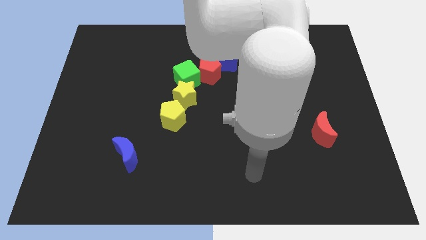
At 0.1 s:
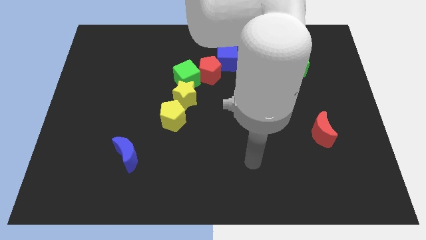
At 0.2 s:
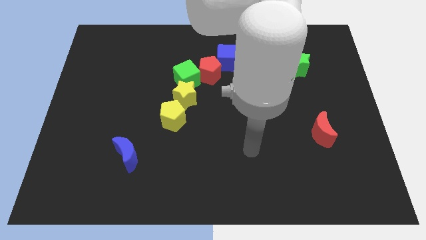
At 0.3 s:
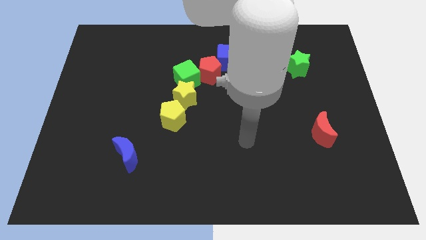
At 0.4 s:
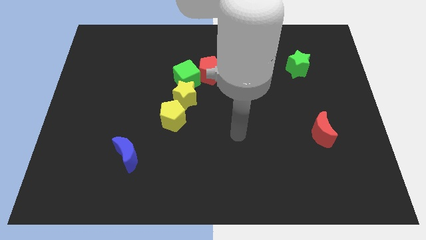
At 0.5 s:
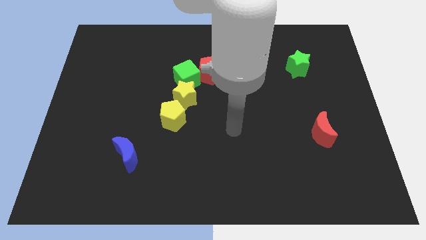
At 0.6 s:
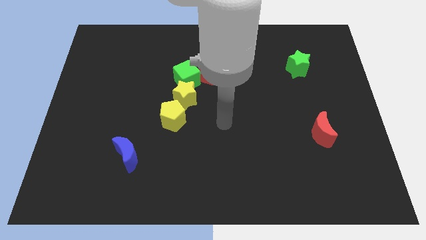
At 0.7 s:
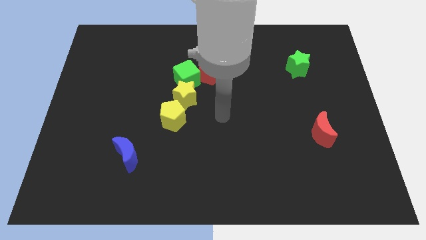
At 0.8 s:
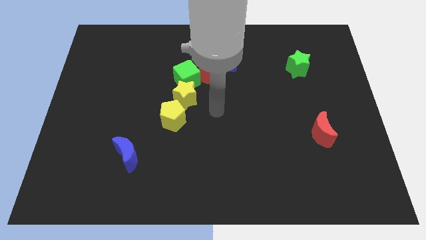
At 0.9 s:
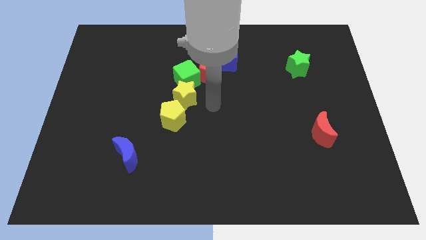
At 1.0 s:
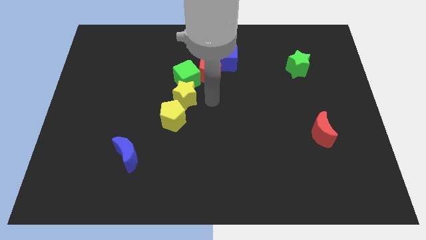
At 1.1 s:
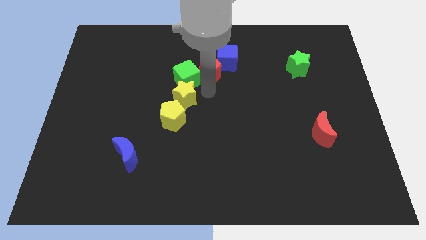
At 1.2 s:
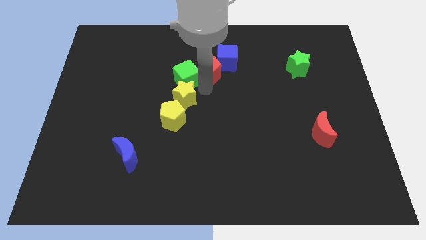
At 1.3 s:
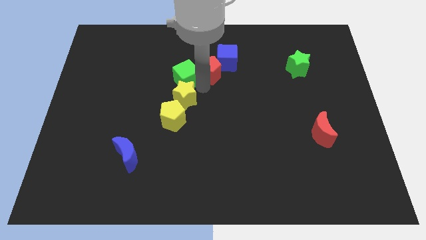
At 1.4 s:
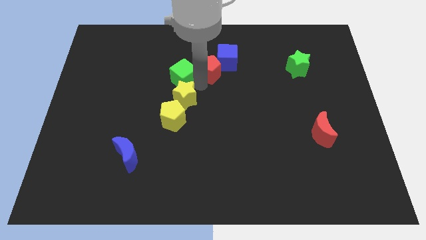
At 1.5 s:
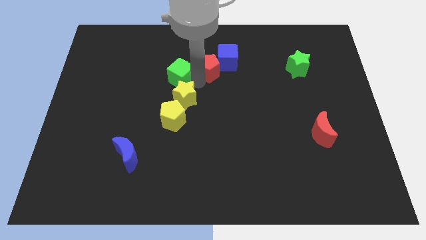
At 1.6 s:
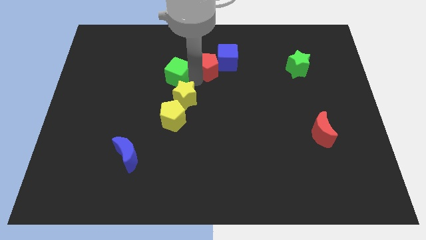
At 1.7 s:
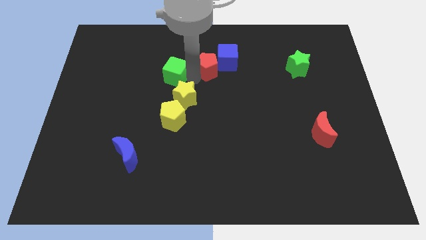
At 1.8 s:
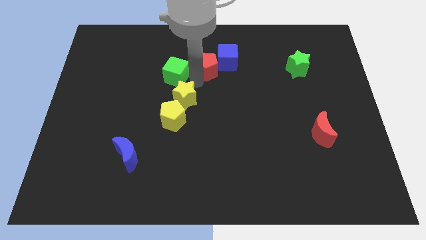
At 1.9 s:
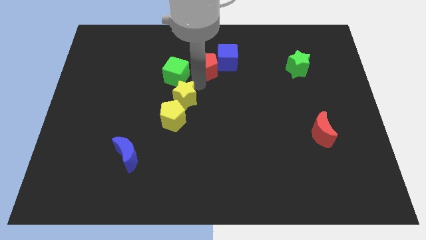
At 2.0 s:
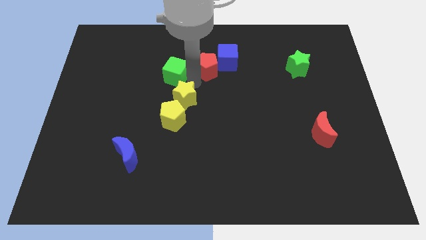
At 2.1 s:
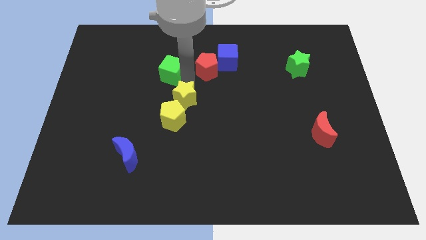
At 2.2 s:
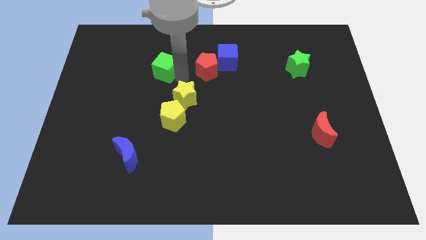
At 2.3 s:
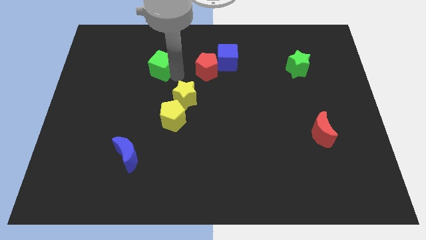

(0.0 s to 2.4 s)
separate the green cube from the red pentagon and yellow star

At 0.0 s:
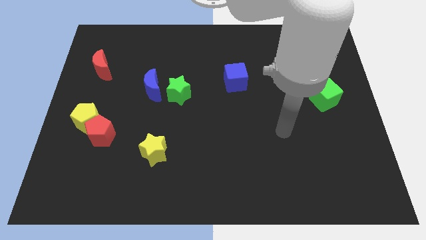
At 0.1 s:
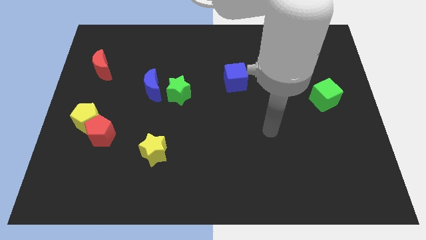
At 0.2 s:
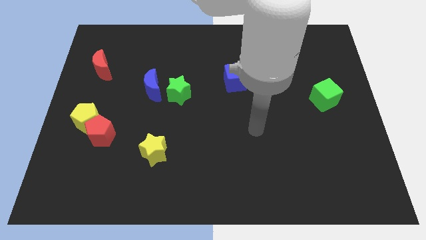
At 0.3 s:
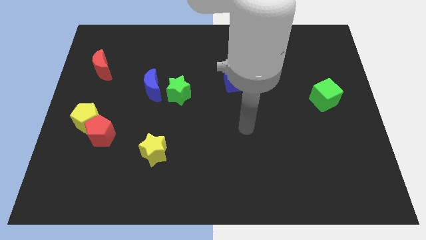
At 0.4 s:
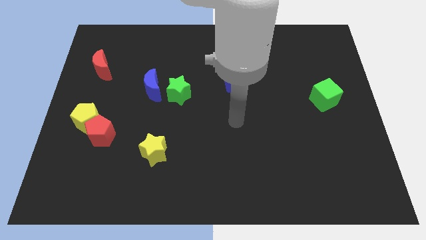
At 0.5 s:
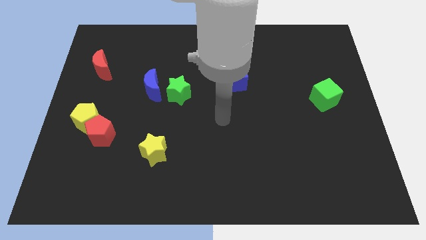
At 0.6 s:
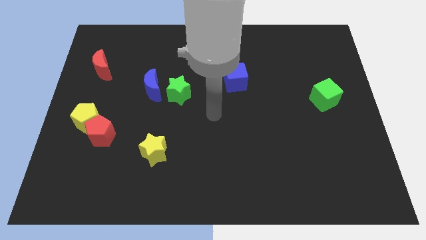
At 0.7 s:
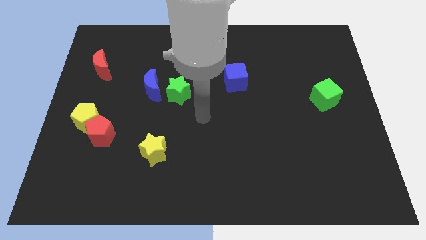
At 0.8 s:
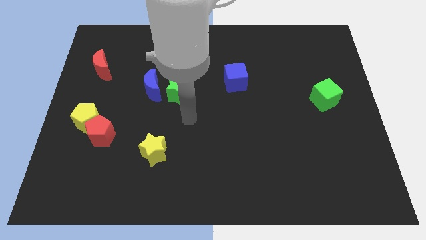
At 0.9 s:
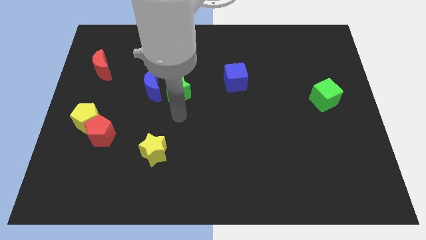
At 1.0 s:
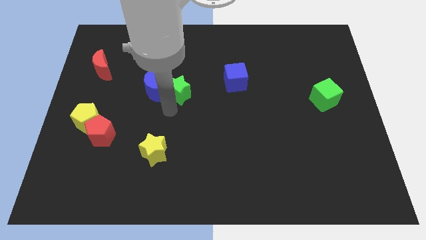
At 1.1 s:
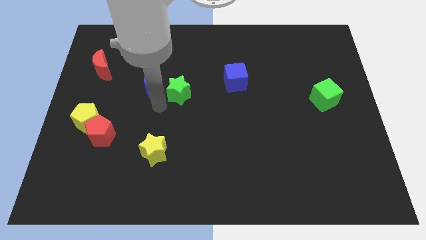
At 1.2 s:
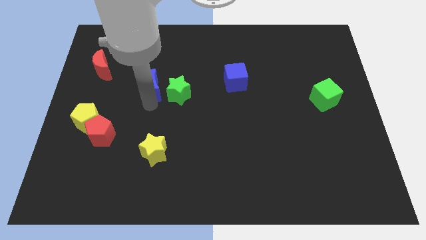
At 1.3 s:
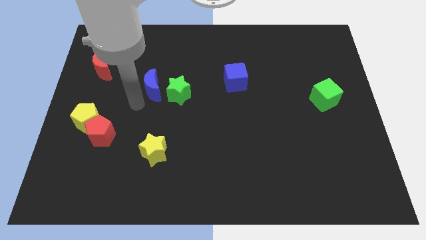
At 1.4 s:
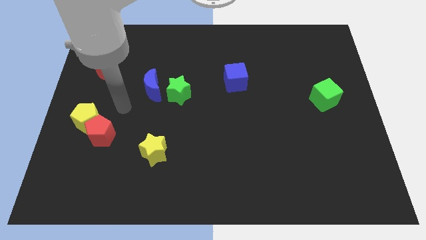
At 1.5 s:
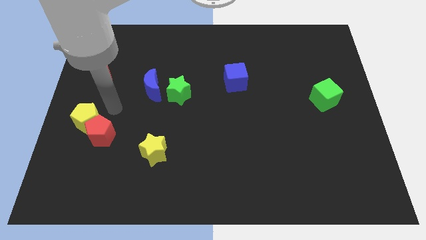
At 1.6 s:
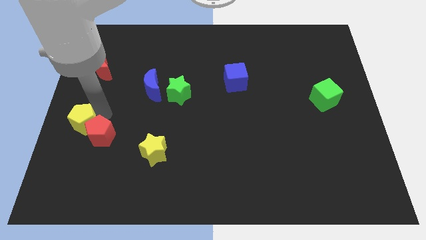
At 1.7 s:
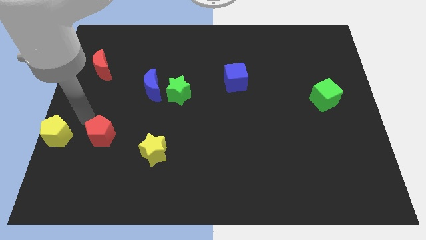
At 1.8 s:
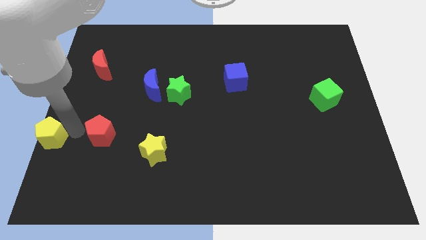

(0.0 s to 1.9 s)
separate the red pentagon from the yellow pentagon

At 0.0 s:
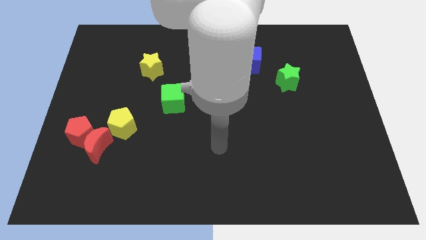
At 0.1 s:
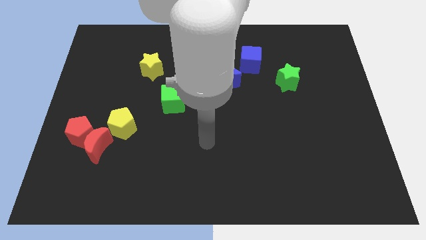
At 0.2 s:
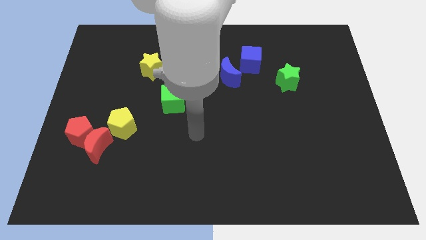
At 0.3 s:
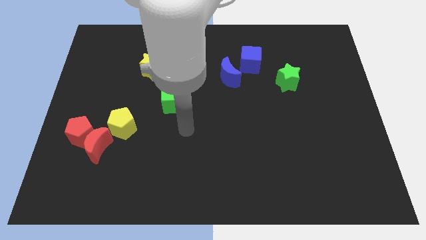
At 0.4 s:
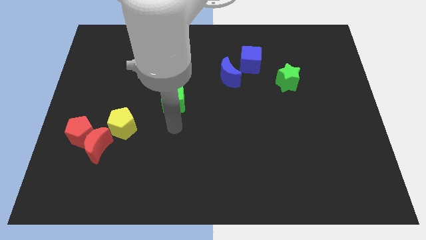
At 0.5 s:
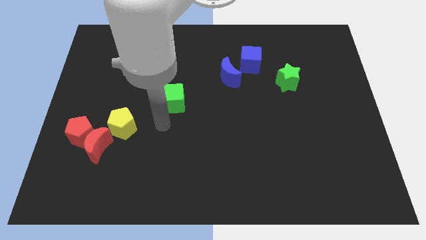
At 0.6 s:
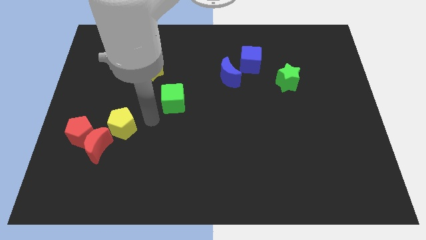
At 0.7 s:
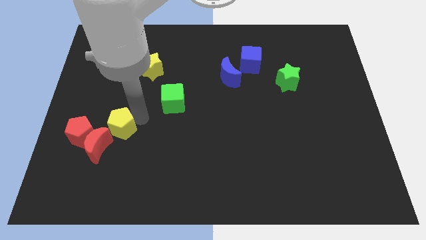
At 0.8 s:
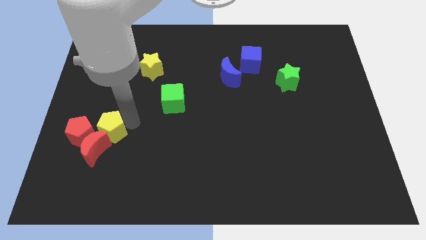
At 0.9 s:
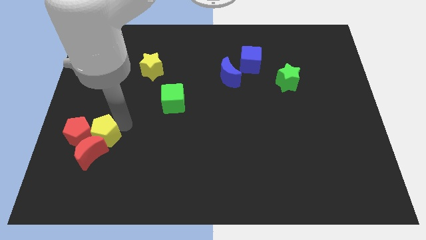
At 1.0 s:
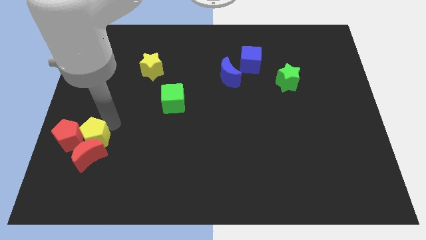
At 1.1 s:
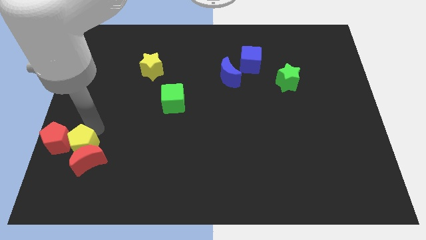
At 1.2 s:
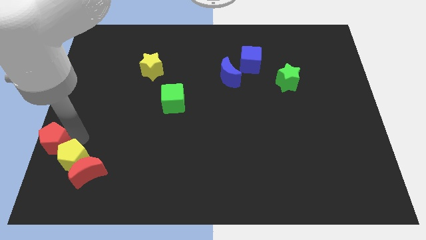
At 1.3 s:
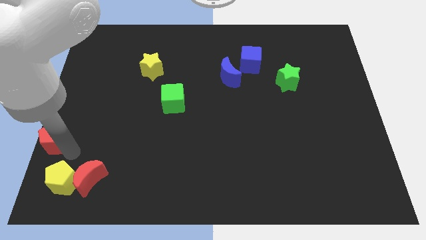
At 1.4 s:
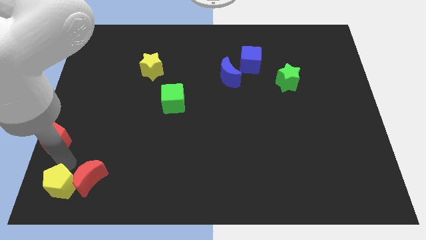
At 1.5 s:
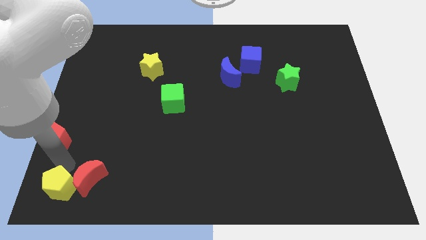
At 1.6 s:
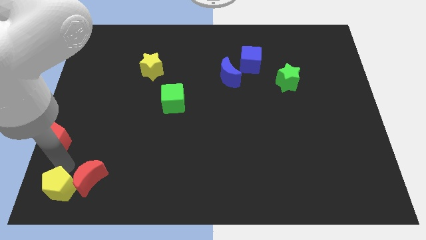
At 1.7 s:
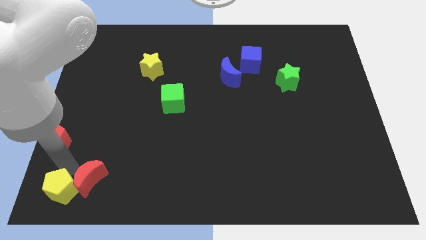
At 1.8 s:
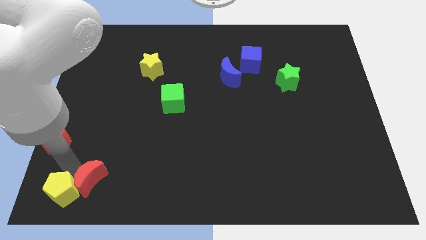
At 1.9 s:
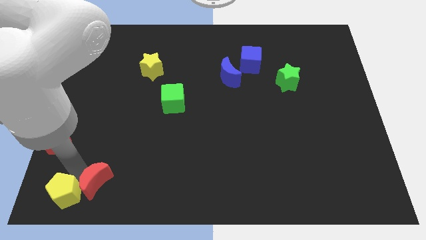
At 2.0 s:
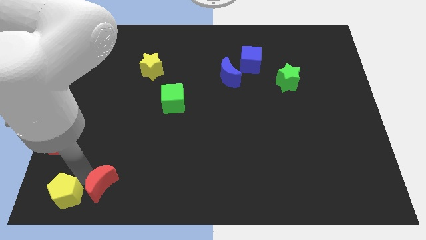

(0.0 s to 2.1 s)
pull the red moon apart from the red pentagon and yellow pentagon

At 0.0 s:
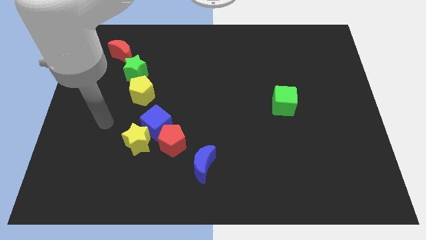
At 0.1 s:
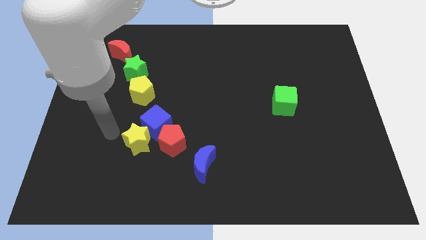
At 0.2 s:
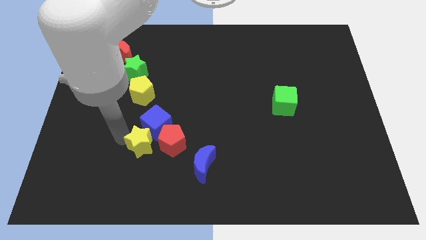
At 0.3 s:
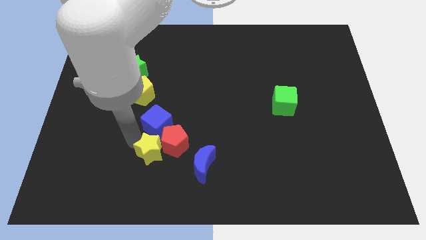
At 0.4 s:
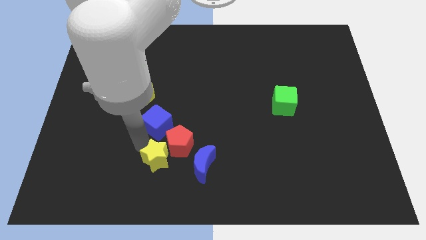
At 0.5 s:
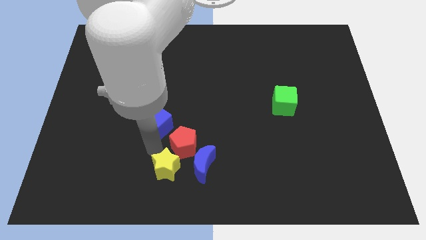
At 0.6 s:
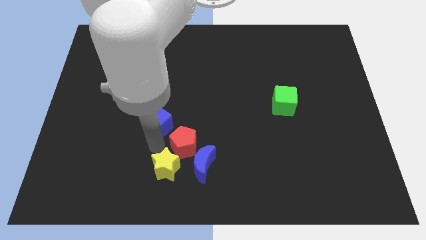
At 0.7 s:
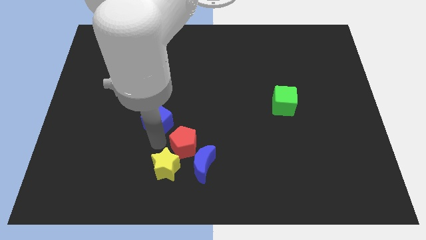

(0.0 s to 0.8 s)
move the blue cube away from the yellow star and red pentagon

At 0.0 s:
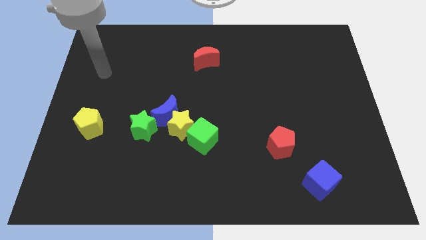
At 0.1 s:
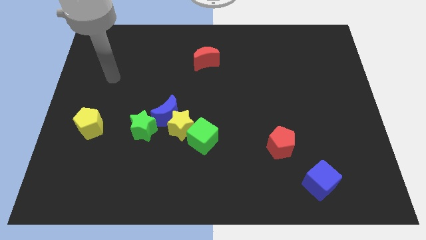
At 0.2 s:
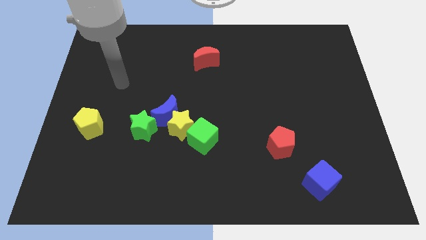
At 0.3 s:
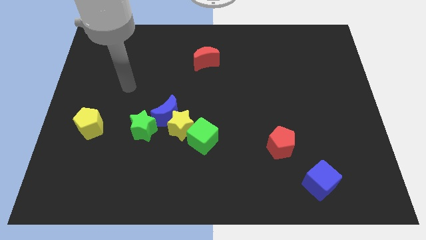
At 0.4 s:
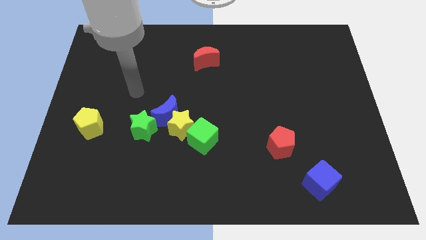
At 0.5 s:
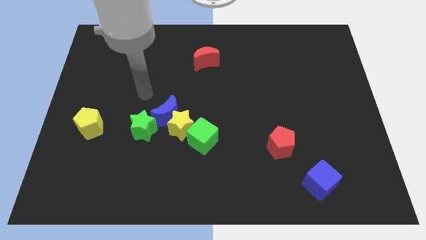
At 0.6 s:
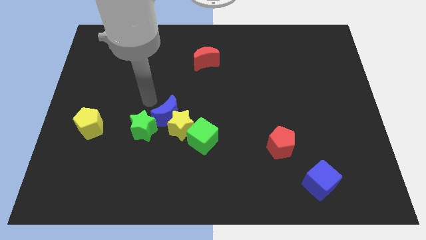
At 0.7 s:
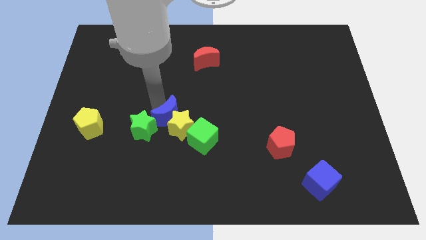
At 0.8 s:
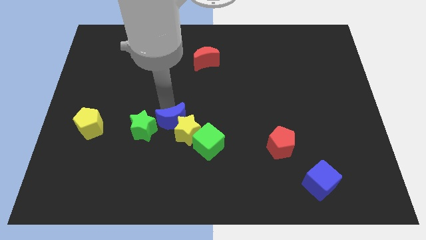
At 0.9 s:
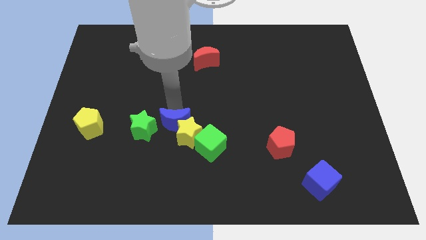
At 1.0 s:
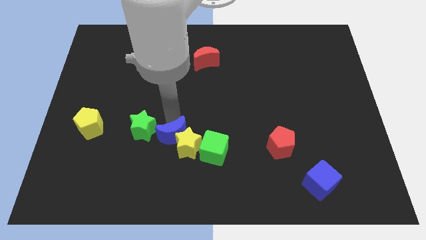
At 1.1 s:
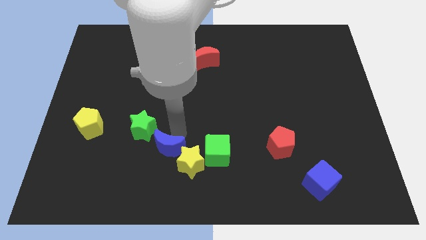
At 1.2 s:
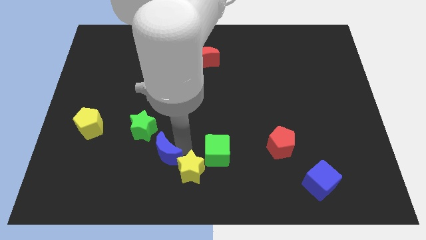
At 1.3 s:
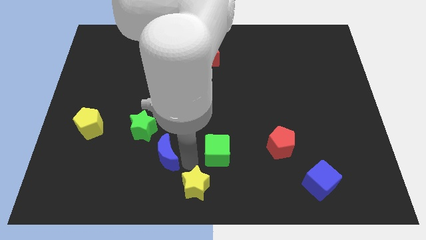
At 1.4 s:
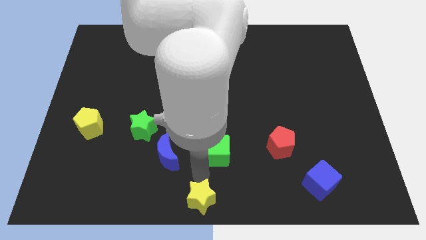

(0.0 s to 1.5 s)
pull the green cube apart from the yellow star

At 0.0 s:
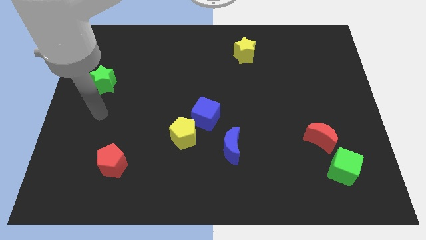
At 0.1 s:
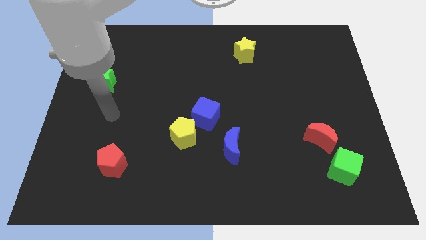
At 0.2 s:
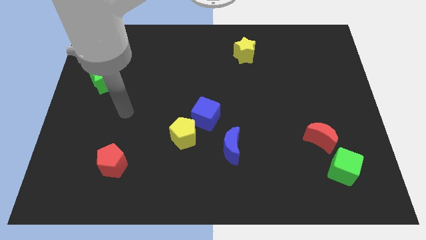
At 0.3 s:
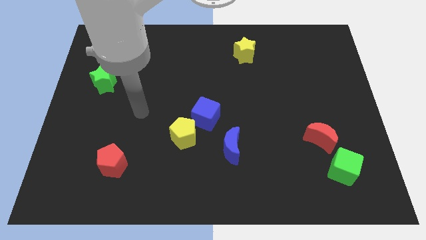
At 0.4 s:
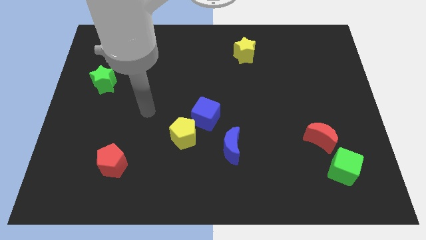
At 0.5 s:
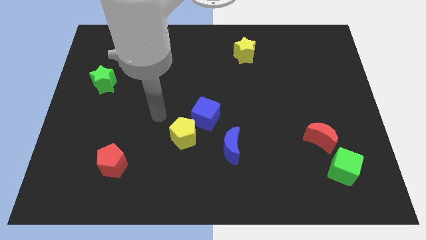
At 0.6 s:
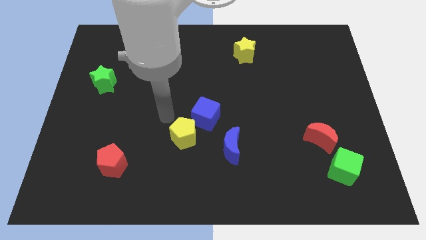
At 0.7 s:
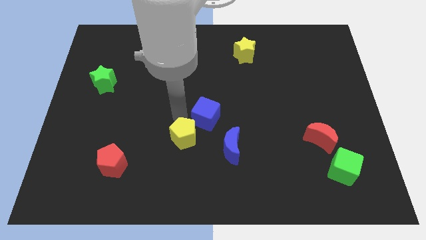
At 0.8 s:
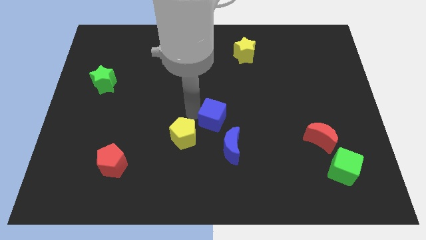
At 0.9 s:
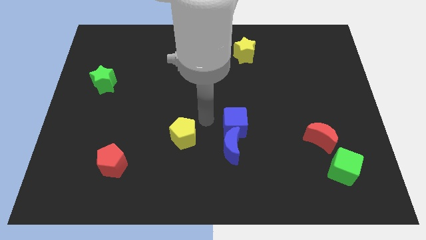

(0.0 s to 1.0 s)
move the yellow pentagon away from the blue cube
